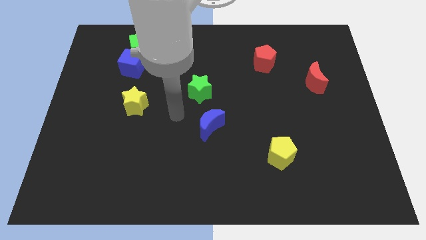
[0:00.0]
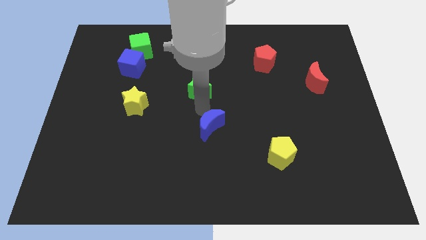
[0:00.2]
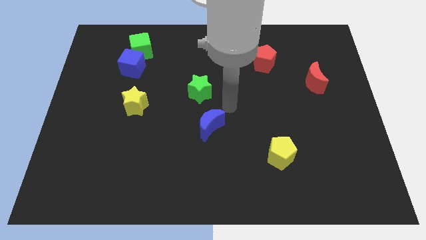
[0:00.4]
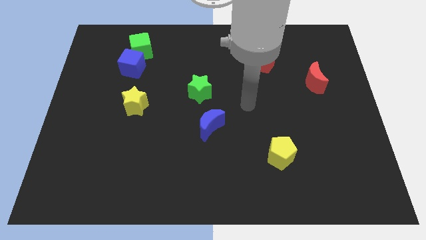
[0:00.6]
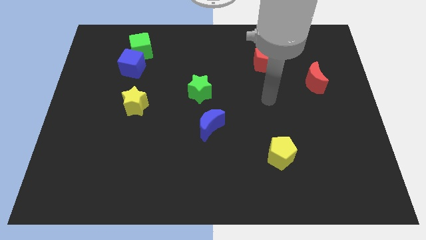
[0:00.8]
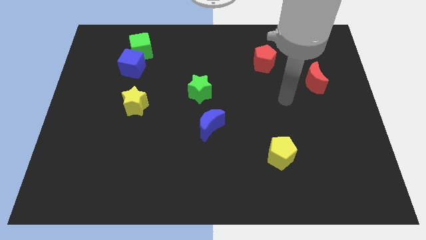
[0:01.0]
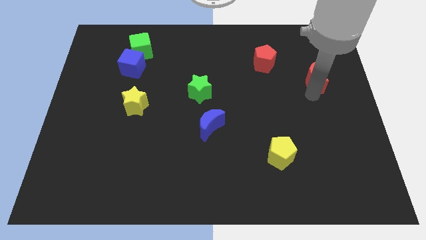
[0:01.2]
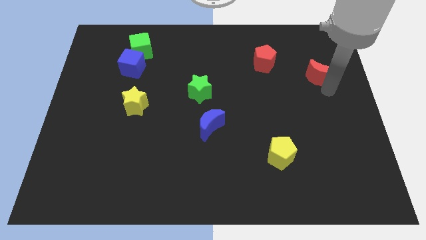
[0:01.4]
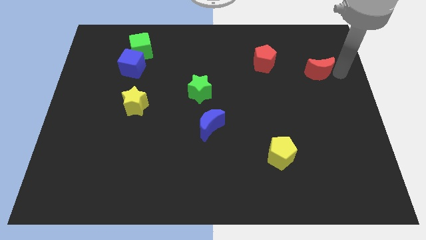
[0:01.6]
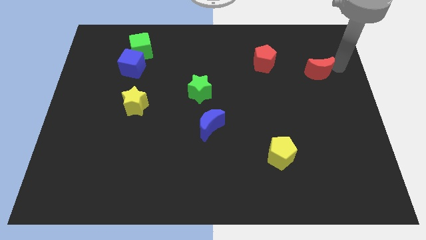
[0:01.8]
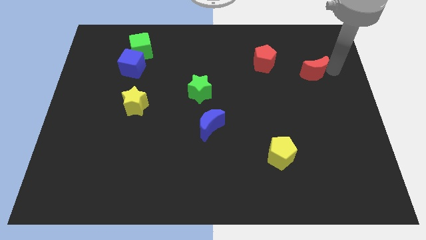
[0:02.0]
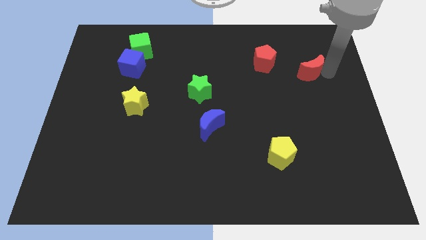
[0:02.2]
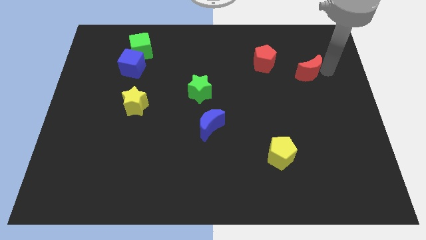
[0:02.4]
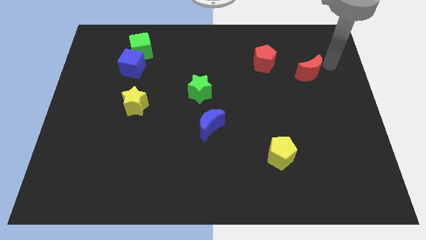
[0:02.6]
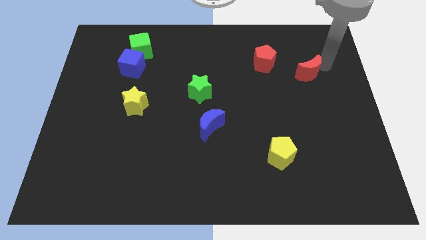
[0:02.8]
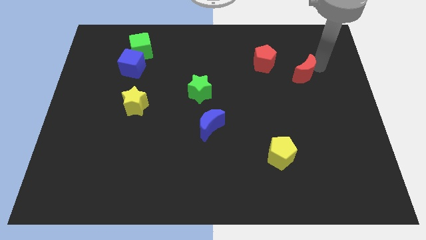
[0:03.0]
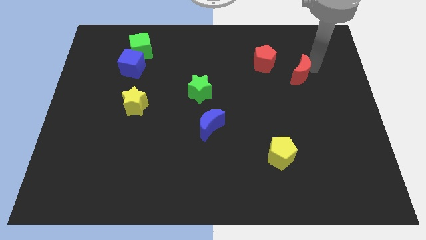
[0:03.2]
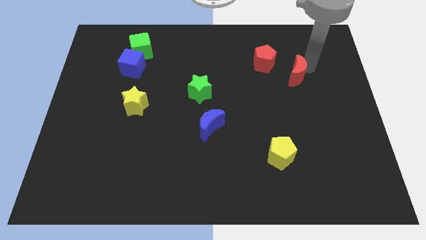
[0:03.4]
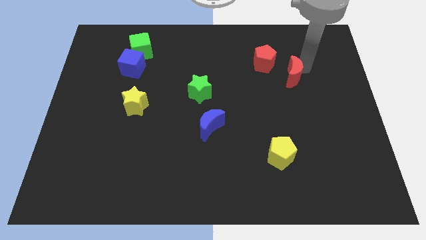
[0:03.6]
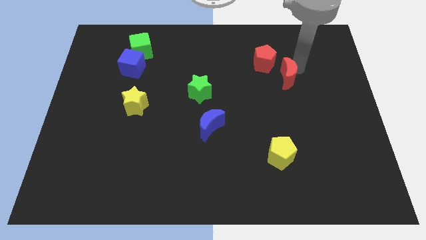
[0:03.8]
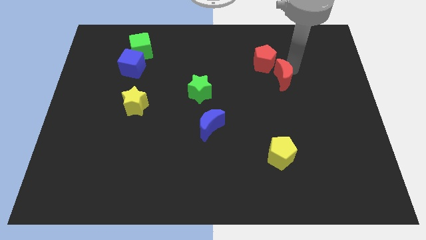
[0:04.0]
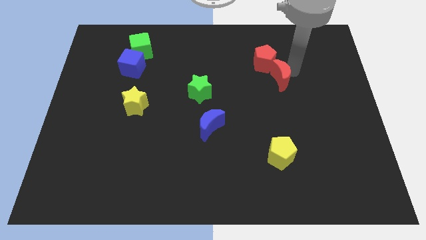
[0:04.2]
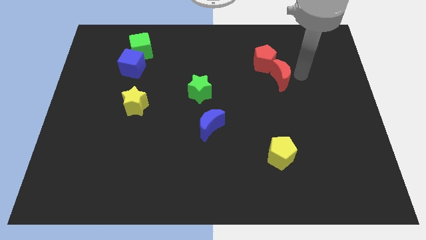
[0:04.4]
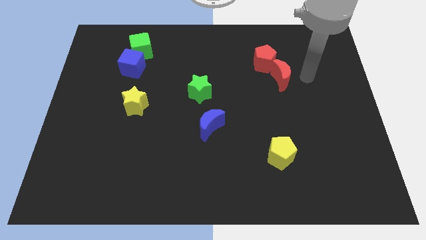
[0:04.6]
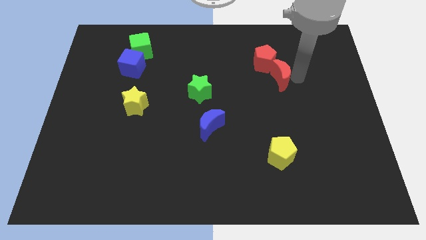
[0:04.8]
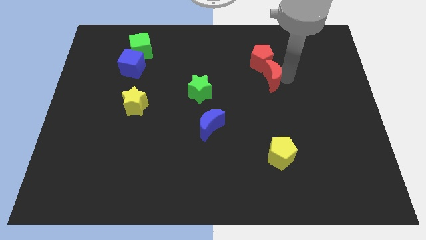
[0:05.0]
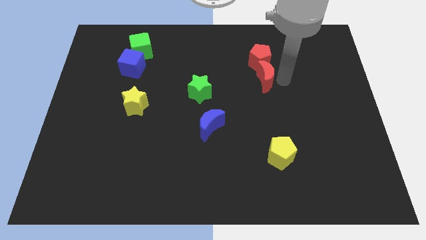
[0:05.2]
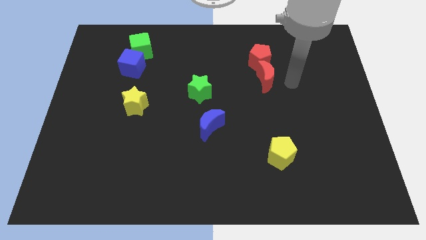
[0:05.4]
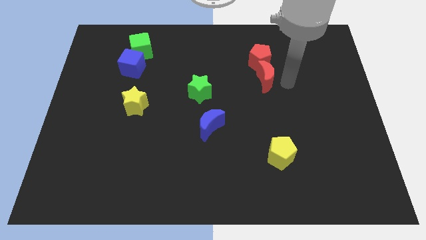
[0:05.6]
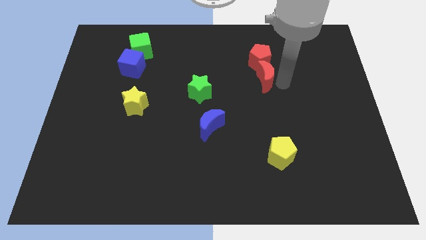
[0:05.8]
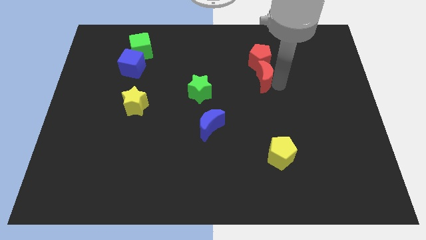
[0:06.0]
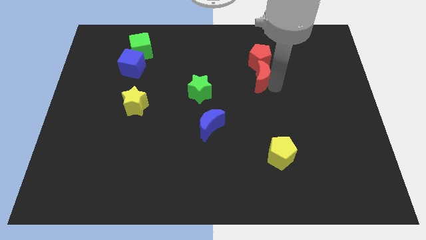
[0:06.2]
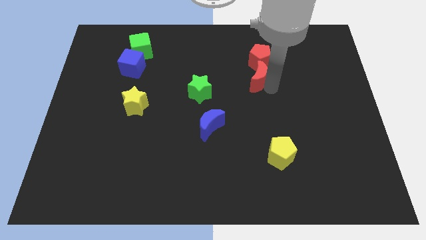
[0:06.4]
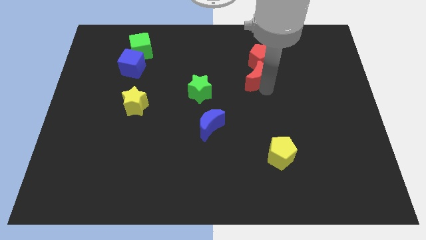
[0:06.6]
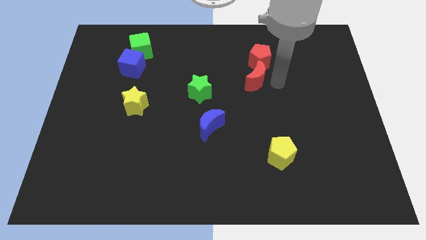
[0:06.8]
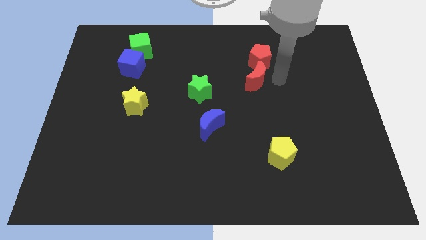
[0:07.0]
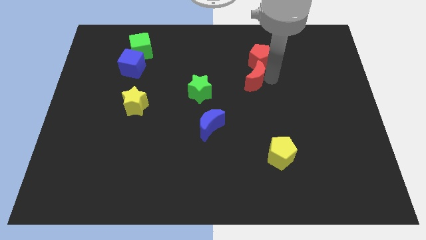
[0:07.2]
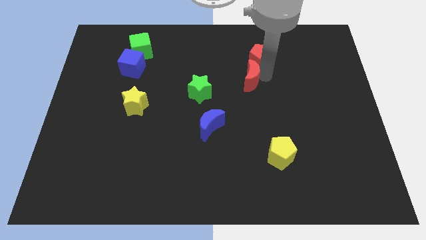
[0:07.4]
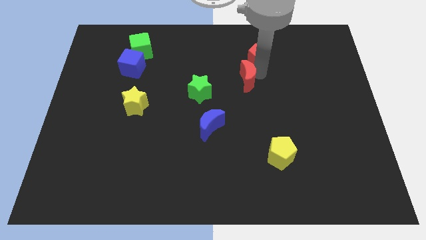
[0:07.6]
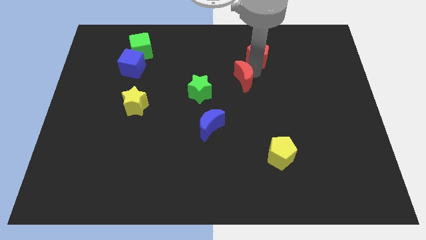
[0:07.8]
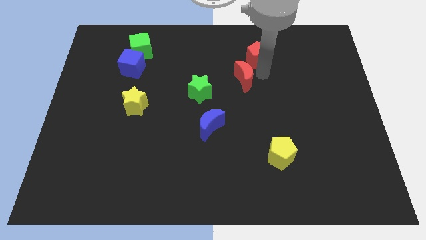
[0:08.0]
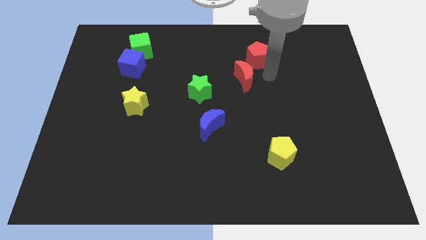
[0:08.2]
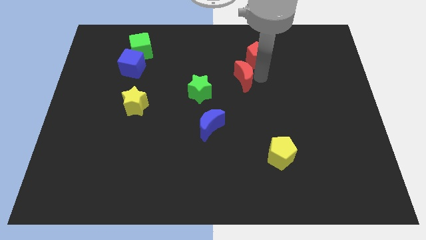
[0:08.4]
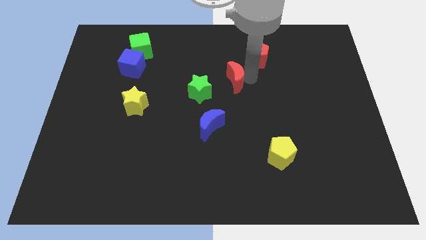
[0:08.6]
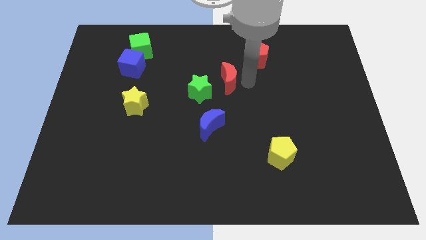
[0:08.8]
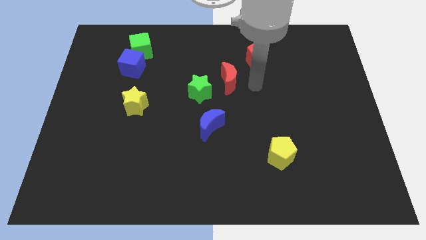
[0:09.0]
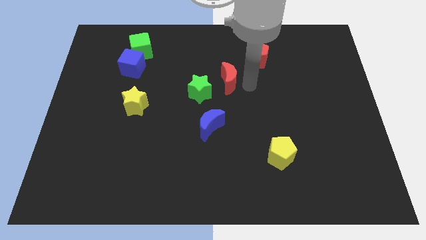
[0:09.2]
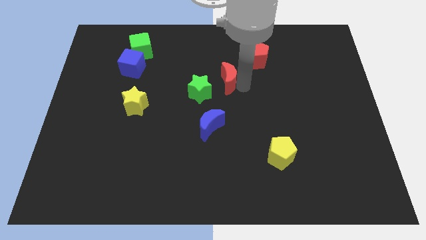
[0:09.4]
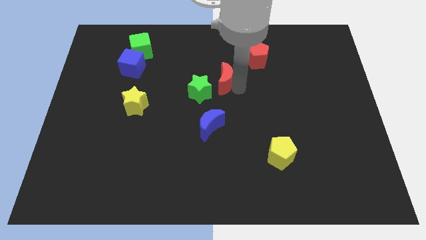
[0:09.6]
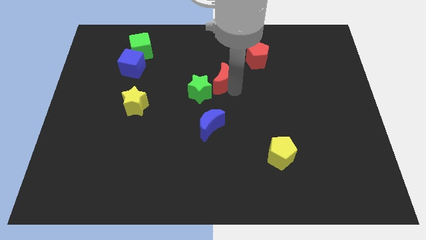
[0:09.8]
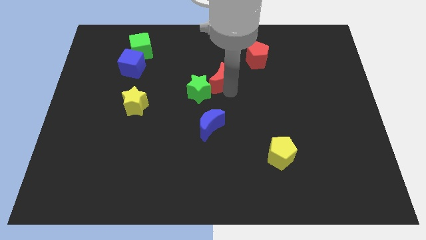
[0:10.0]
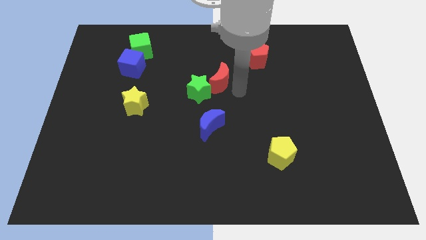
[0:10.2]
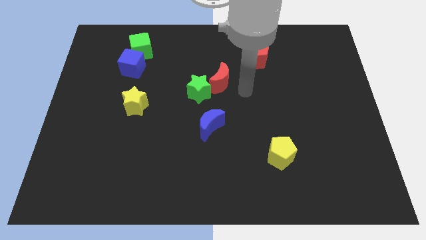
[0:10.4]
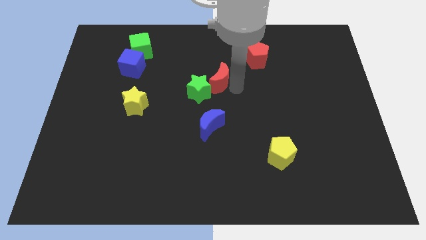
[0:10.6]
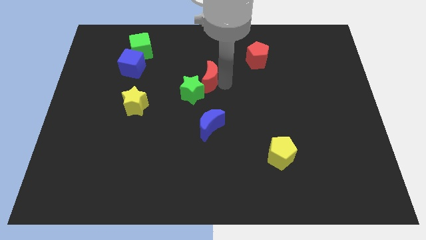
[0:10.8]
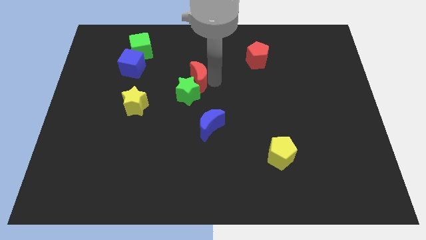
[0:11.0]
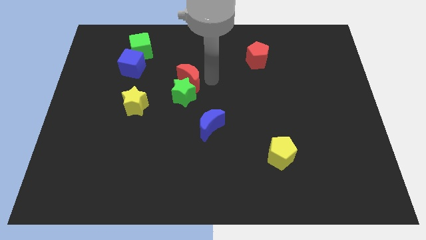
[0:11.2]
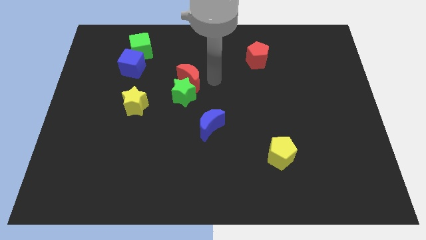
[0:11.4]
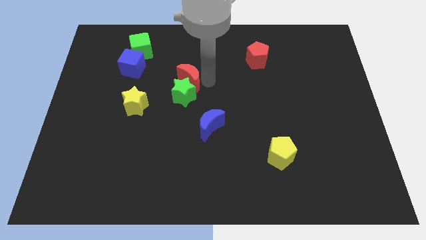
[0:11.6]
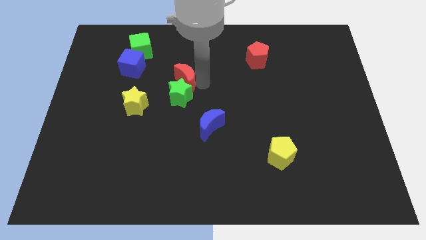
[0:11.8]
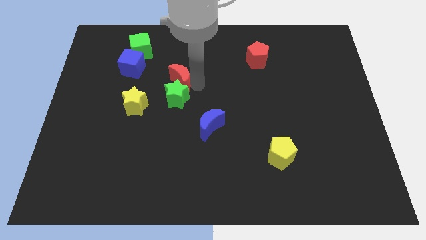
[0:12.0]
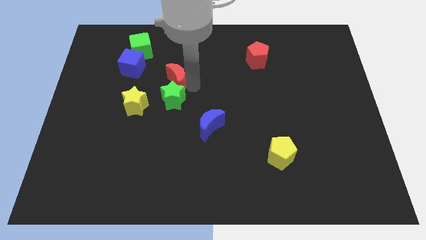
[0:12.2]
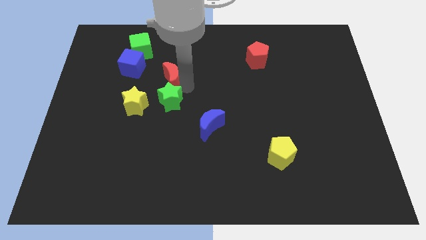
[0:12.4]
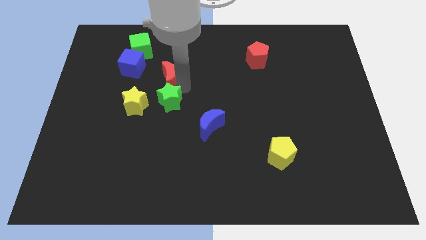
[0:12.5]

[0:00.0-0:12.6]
move the red moon to the bottom right of the blue cube
